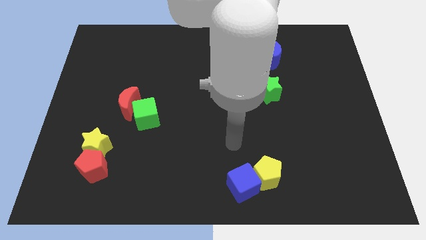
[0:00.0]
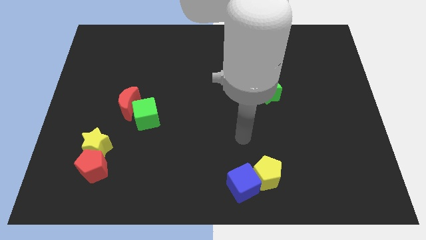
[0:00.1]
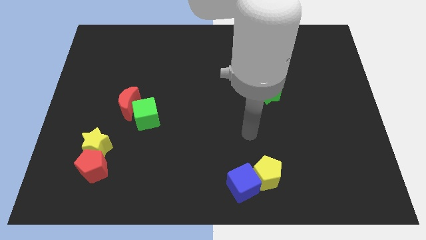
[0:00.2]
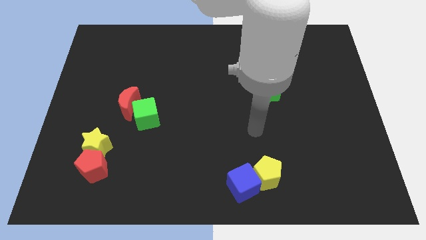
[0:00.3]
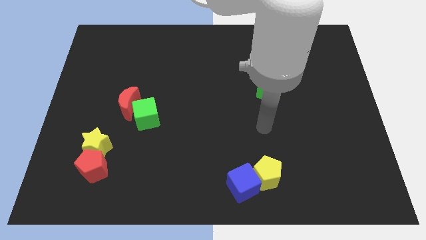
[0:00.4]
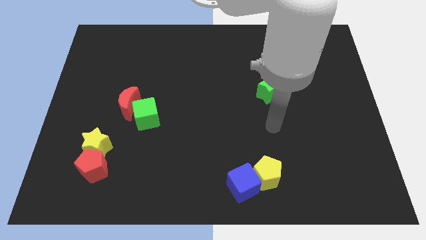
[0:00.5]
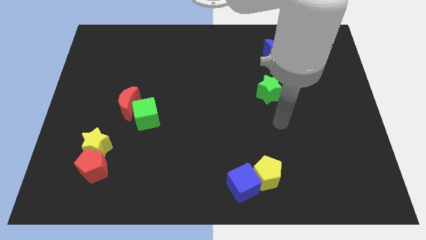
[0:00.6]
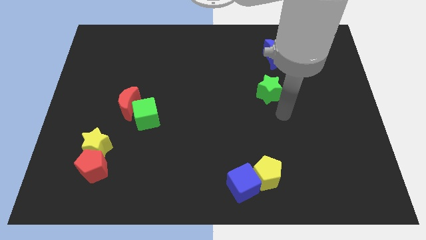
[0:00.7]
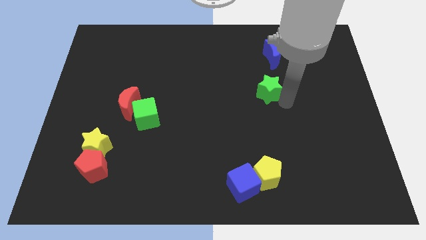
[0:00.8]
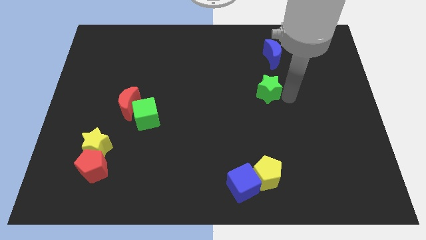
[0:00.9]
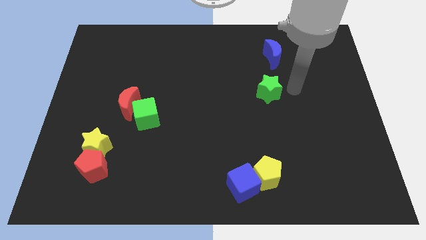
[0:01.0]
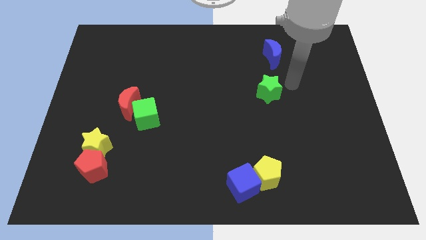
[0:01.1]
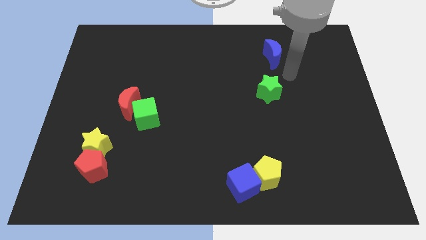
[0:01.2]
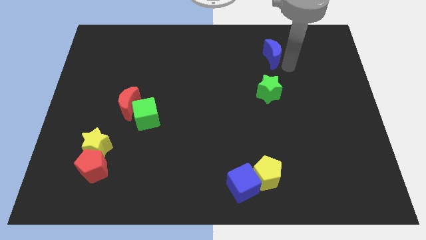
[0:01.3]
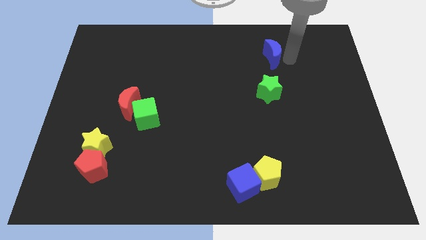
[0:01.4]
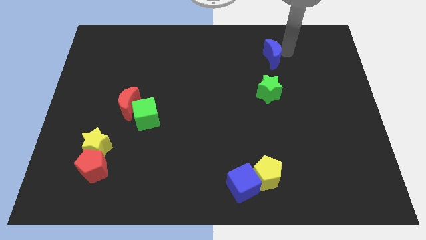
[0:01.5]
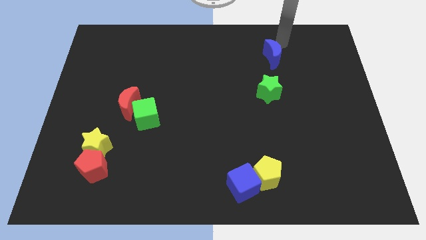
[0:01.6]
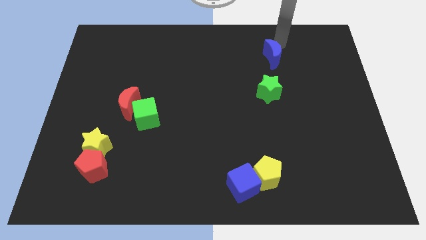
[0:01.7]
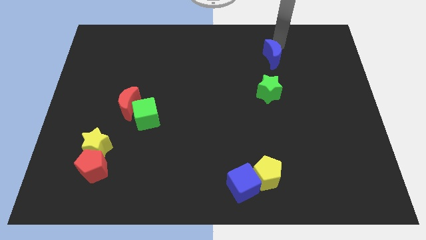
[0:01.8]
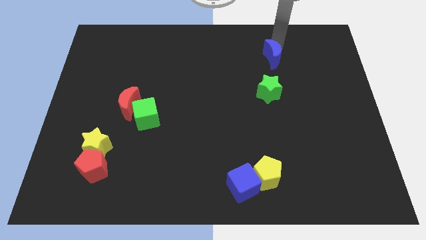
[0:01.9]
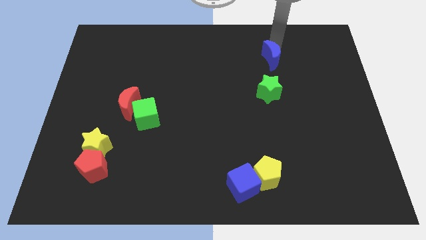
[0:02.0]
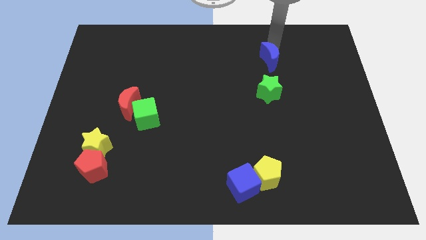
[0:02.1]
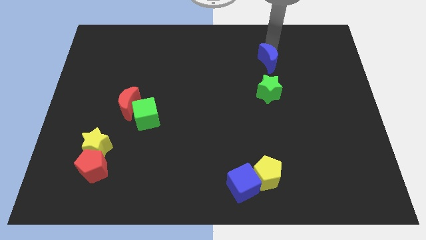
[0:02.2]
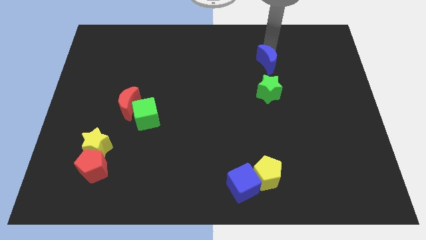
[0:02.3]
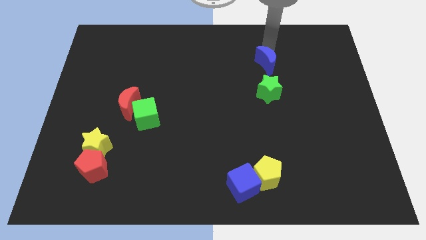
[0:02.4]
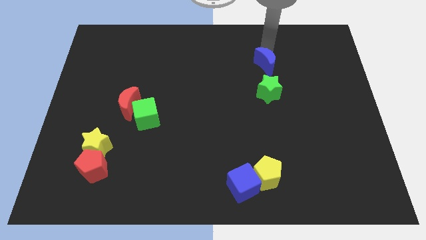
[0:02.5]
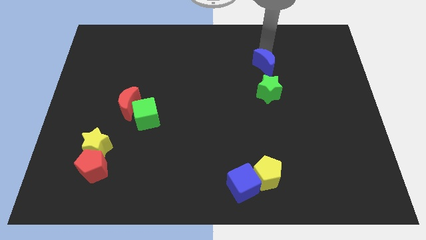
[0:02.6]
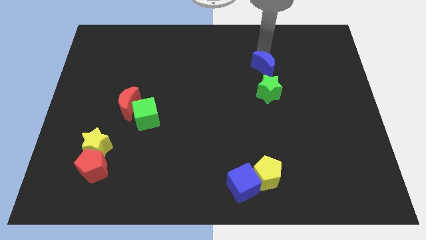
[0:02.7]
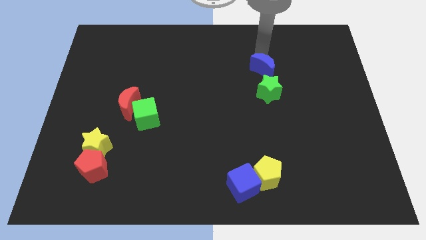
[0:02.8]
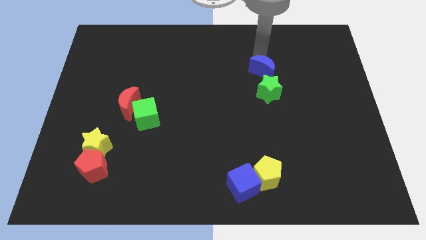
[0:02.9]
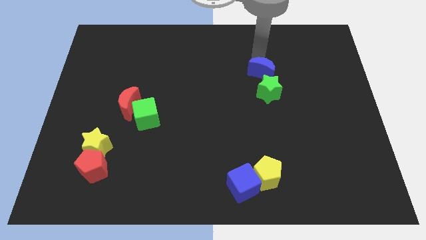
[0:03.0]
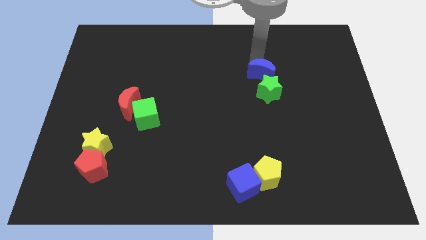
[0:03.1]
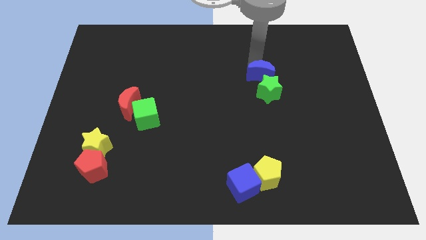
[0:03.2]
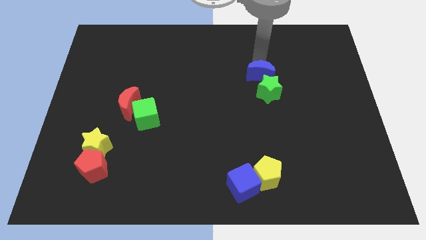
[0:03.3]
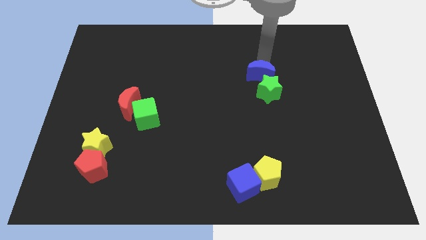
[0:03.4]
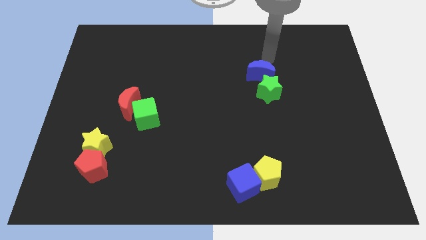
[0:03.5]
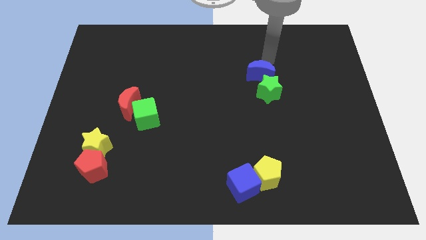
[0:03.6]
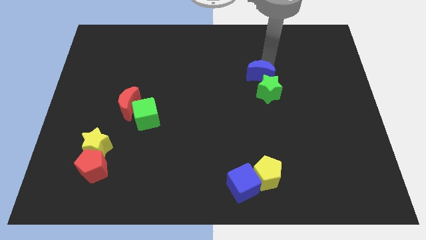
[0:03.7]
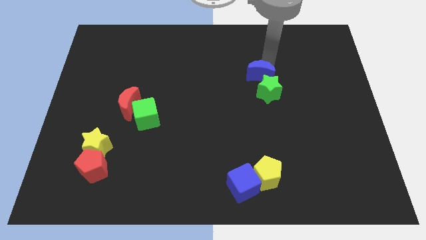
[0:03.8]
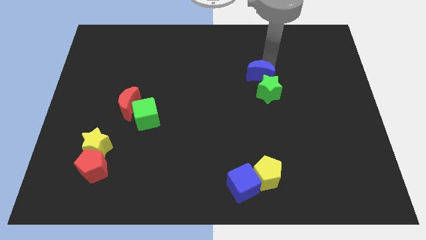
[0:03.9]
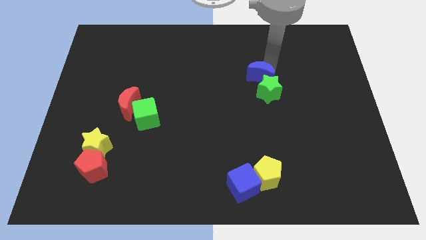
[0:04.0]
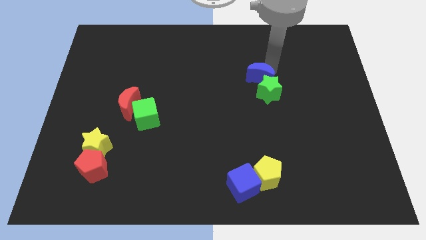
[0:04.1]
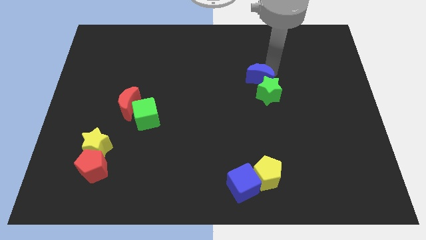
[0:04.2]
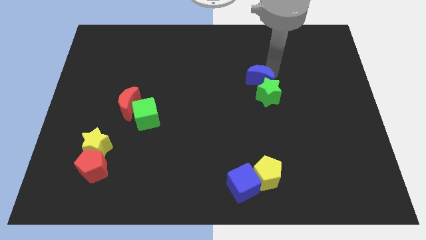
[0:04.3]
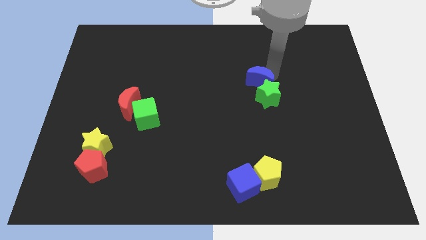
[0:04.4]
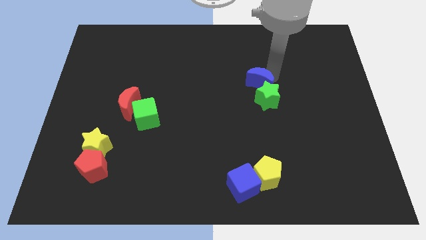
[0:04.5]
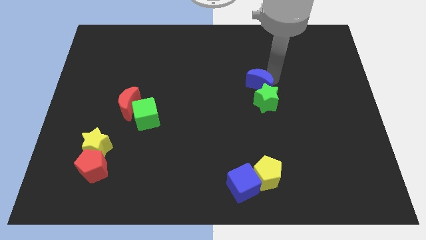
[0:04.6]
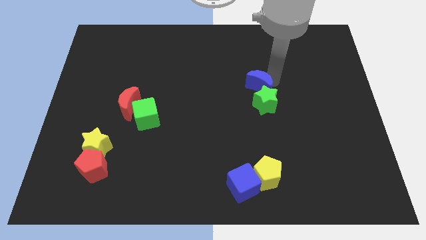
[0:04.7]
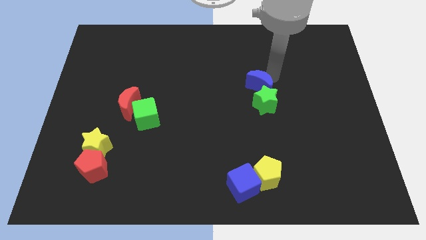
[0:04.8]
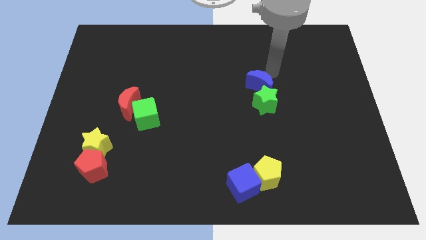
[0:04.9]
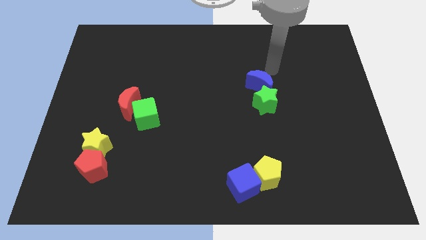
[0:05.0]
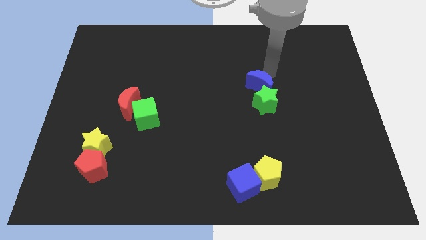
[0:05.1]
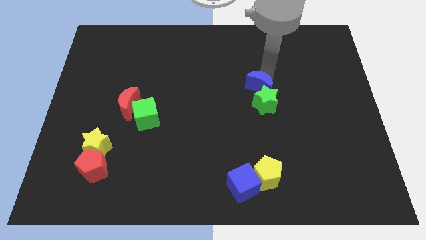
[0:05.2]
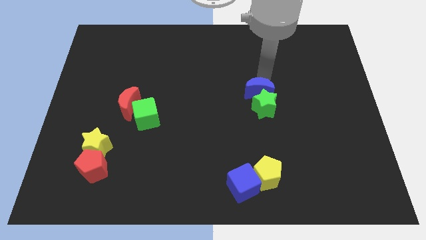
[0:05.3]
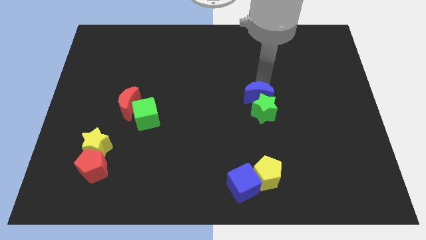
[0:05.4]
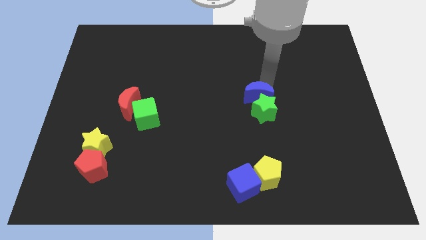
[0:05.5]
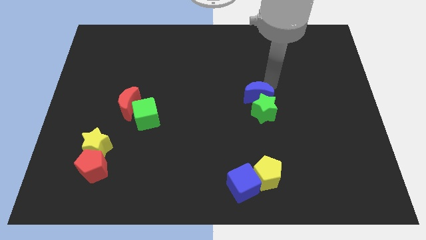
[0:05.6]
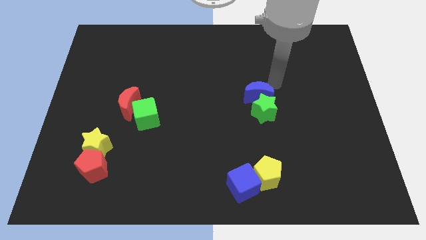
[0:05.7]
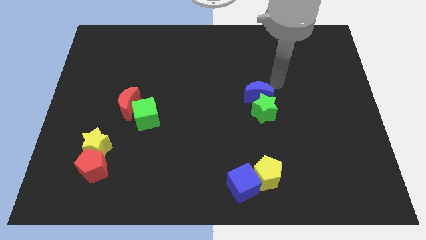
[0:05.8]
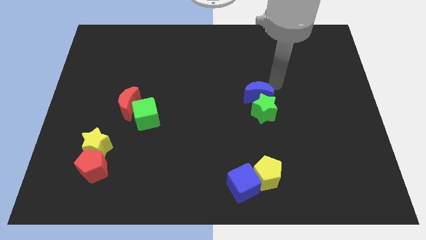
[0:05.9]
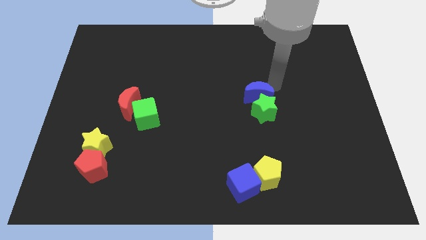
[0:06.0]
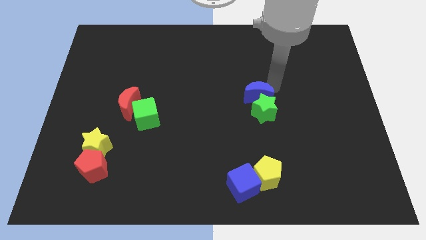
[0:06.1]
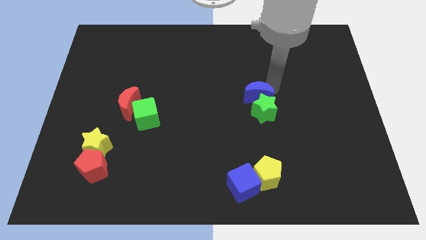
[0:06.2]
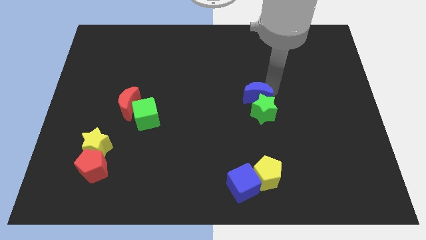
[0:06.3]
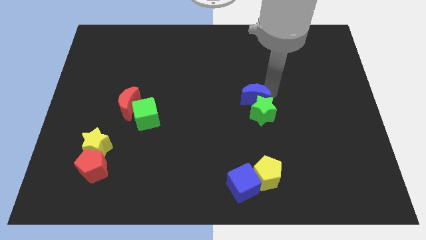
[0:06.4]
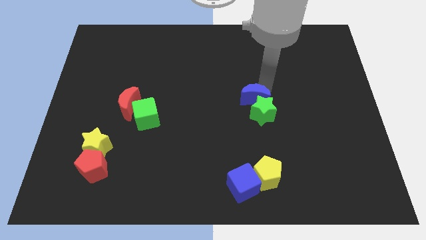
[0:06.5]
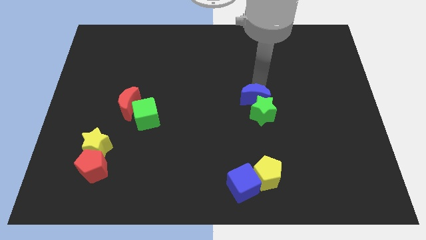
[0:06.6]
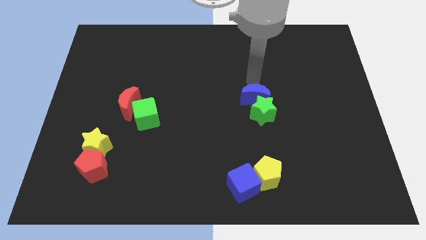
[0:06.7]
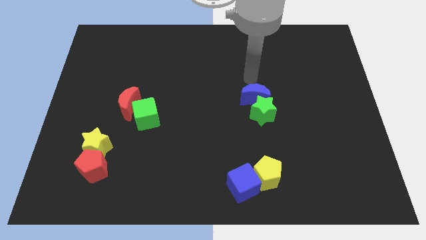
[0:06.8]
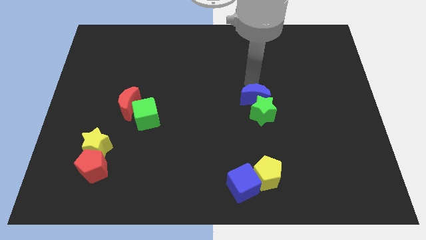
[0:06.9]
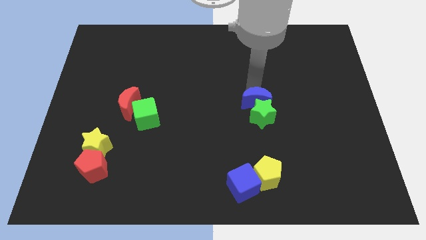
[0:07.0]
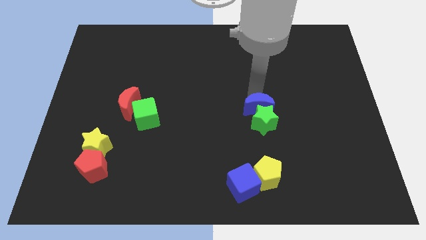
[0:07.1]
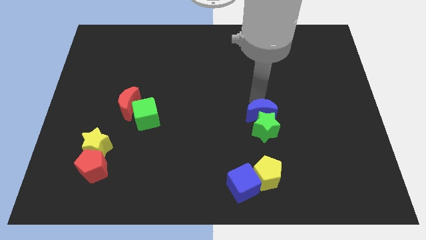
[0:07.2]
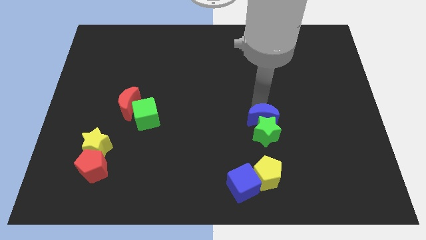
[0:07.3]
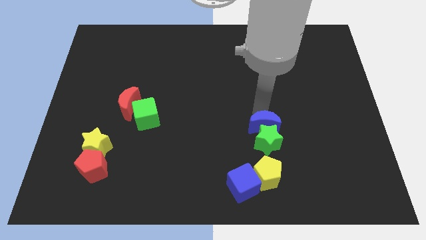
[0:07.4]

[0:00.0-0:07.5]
slide the blue moon down

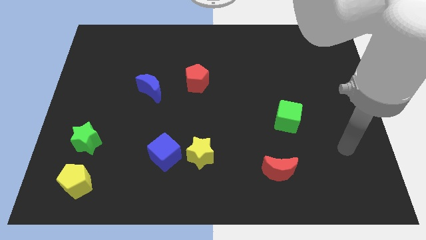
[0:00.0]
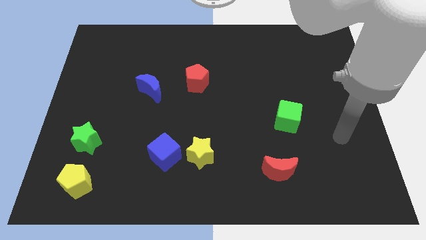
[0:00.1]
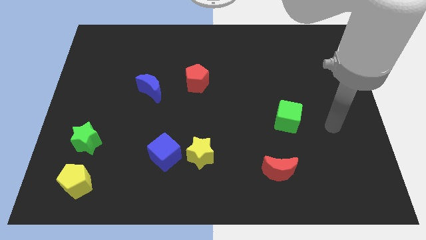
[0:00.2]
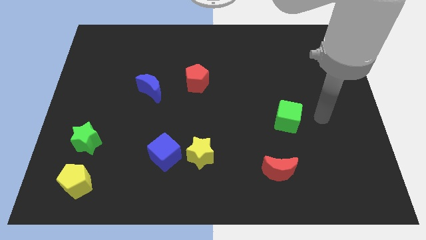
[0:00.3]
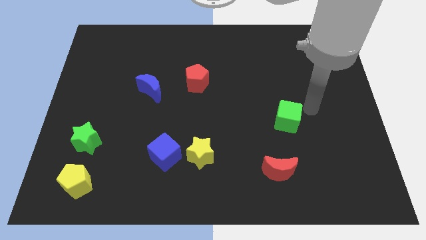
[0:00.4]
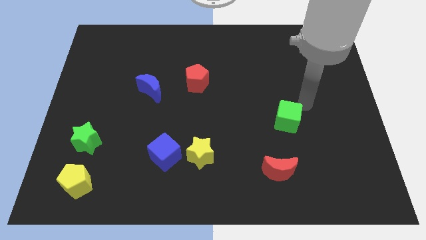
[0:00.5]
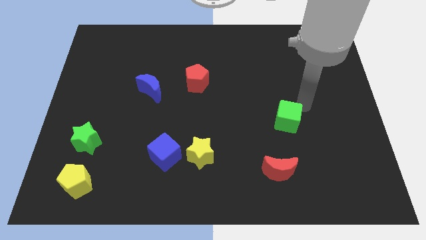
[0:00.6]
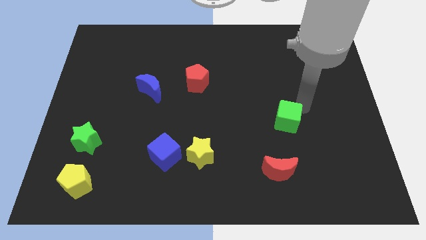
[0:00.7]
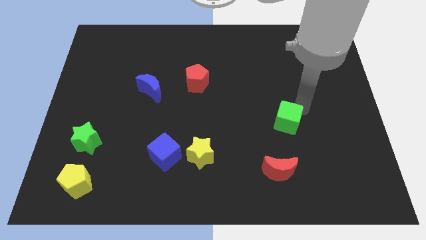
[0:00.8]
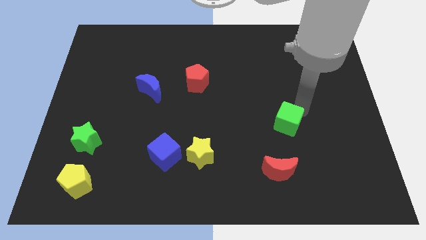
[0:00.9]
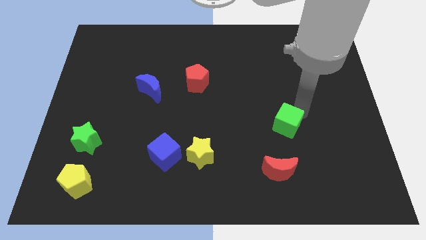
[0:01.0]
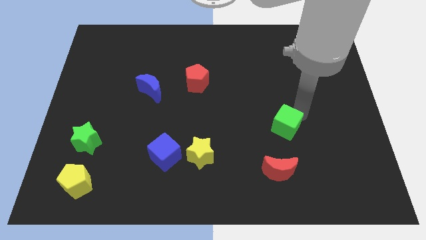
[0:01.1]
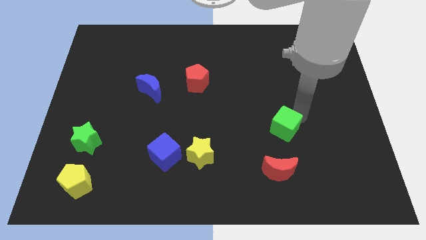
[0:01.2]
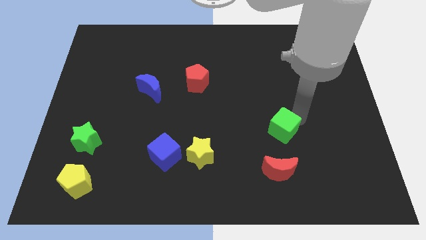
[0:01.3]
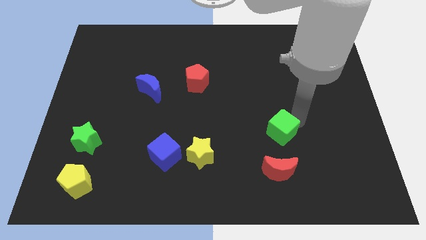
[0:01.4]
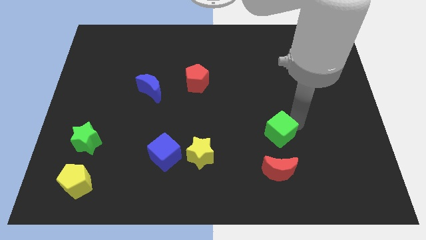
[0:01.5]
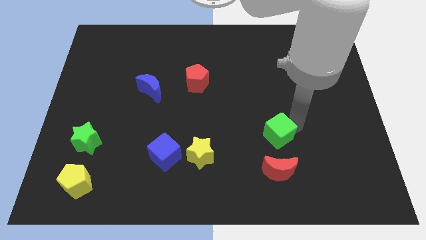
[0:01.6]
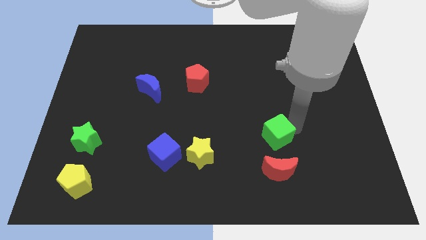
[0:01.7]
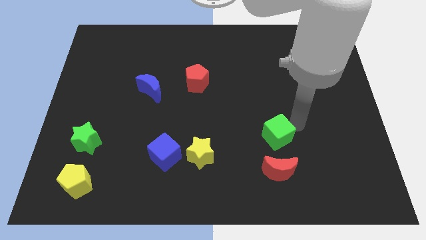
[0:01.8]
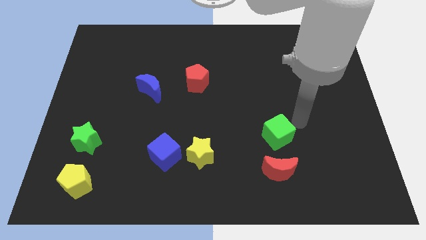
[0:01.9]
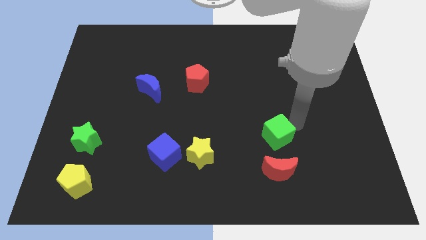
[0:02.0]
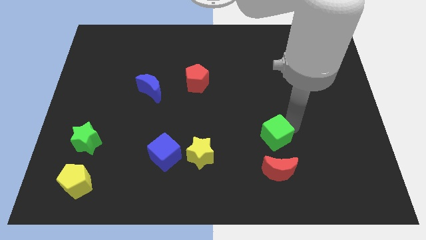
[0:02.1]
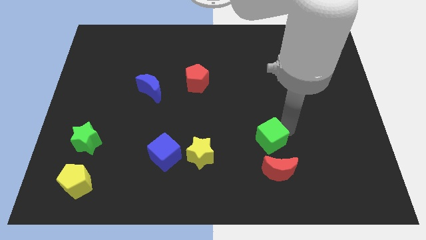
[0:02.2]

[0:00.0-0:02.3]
move the green cube a bit diagonally downwards and to the left
